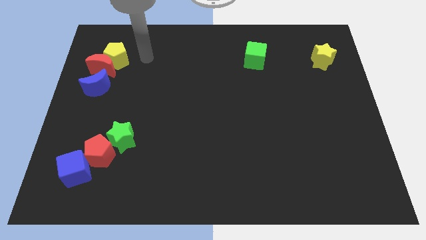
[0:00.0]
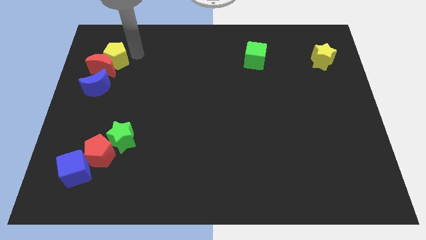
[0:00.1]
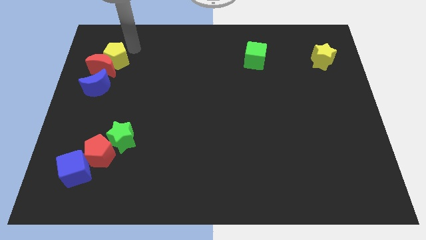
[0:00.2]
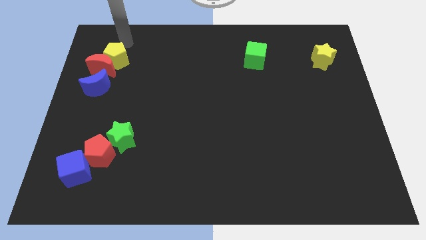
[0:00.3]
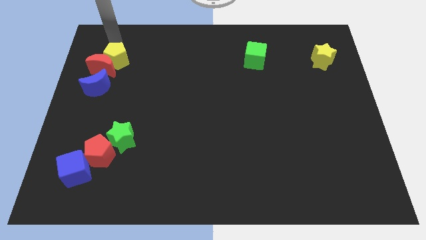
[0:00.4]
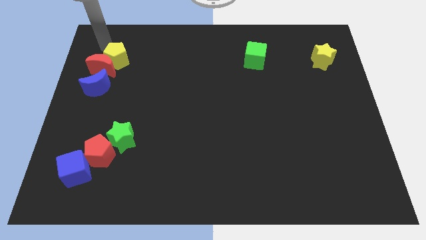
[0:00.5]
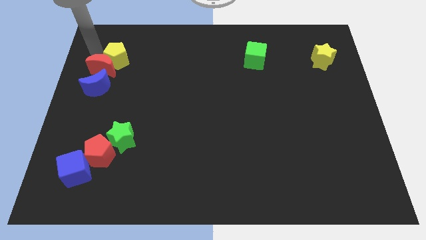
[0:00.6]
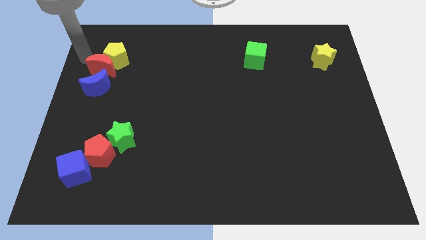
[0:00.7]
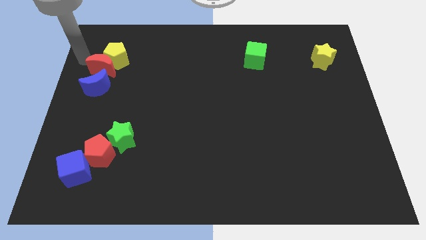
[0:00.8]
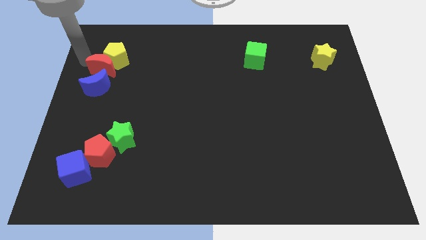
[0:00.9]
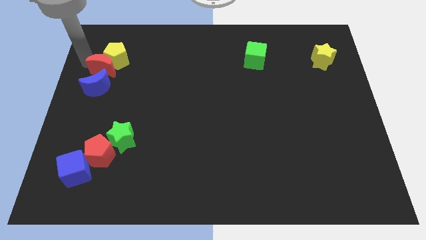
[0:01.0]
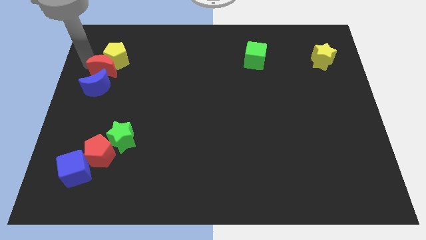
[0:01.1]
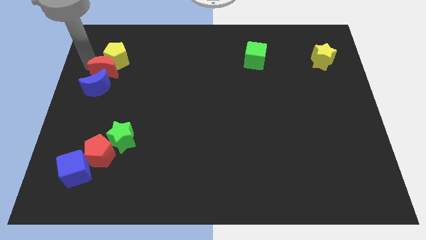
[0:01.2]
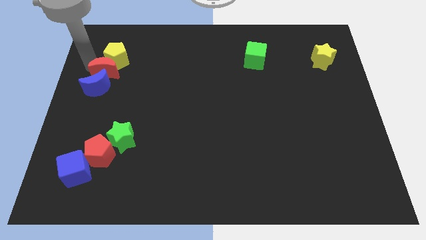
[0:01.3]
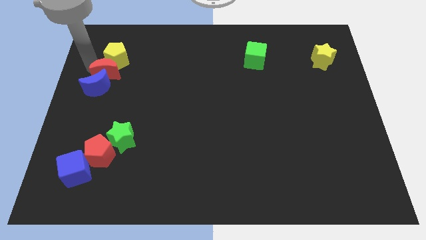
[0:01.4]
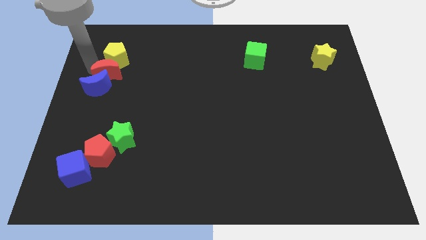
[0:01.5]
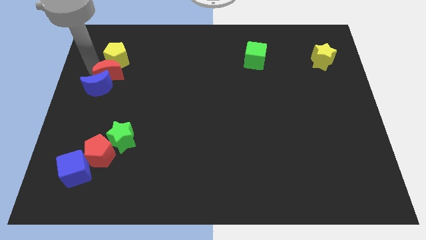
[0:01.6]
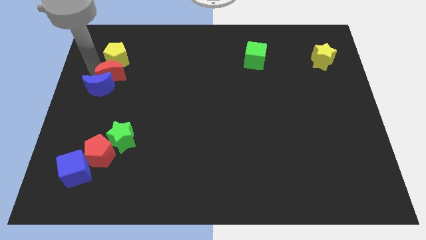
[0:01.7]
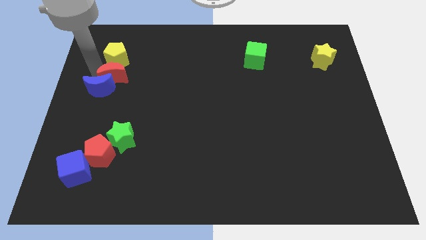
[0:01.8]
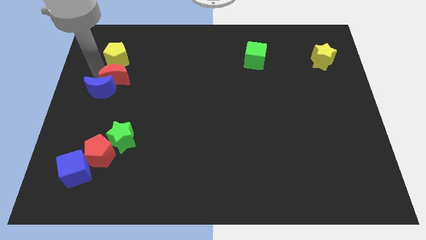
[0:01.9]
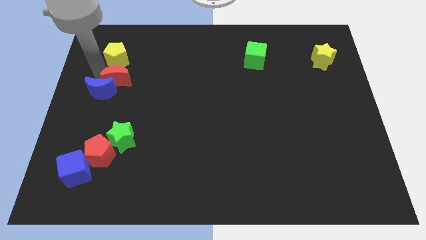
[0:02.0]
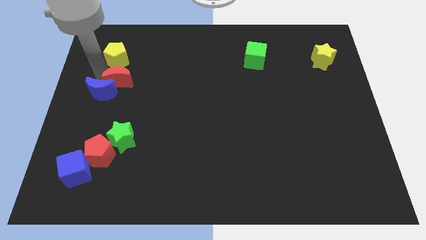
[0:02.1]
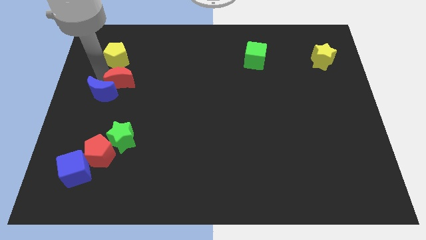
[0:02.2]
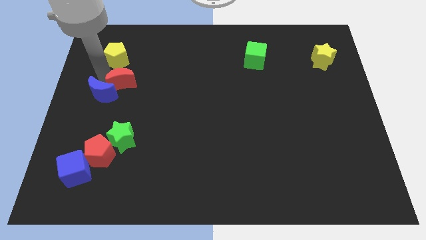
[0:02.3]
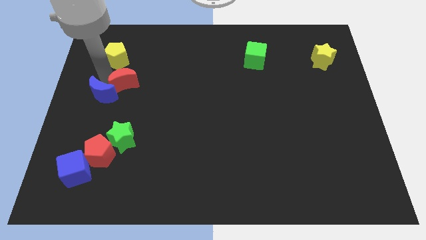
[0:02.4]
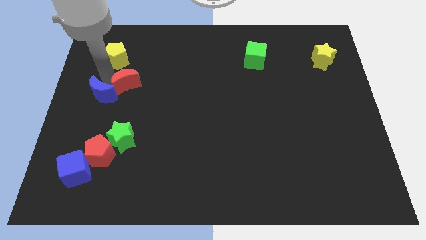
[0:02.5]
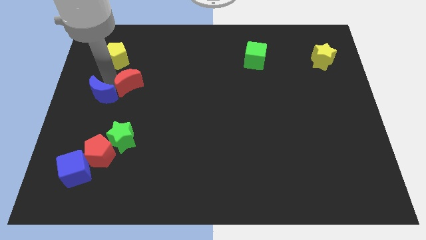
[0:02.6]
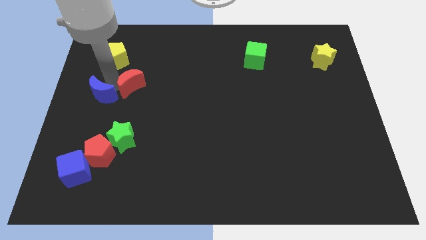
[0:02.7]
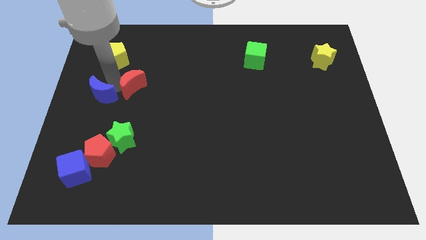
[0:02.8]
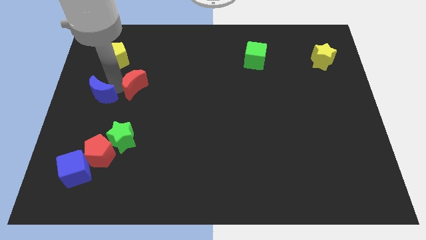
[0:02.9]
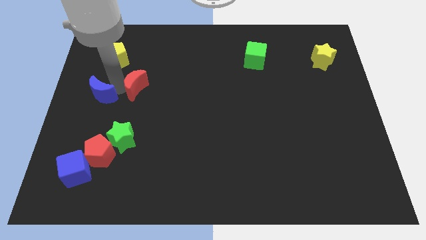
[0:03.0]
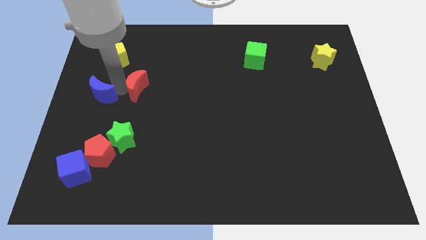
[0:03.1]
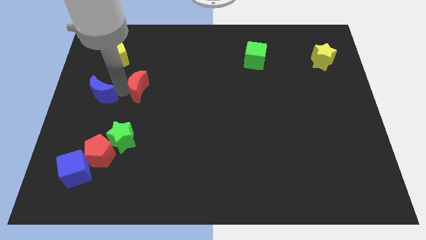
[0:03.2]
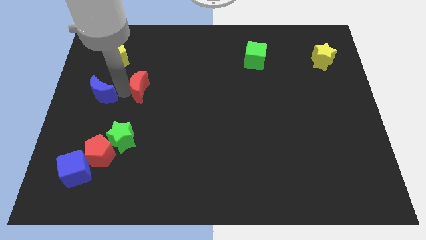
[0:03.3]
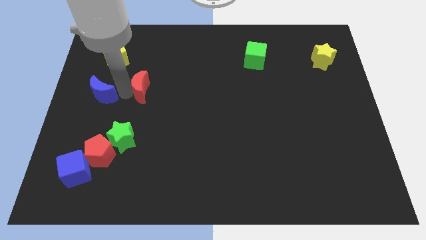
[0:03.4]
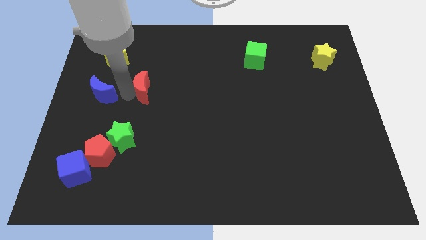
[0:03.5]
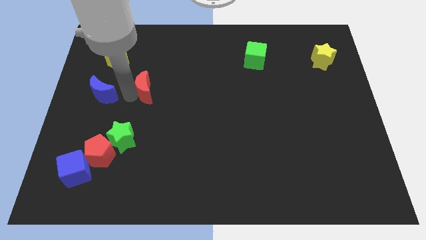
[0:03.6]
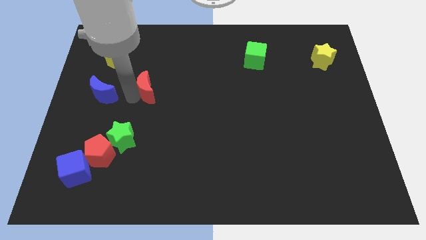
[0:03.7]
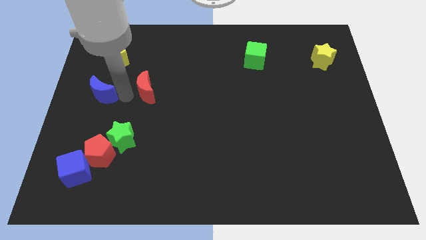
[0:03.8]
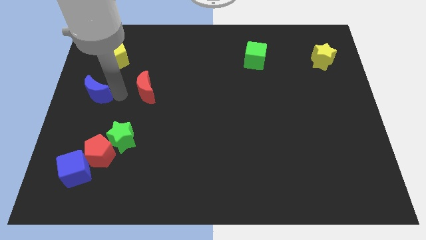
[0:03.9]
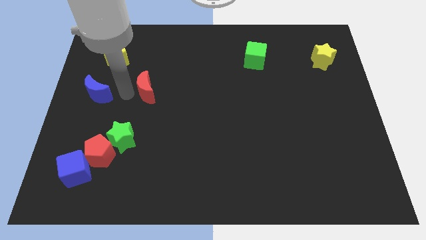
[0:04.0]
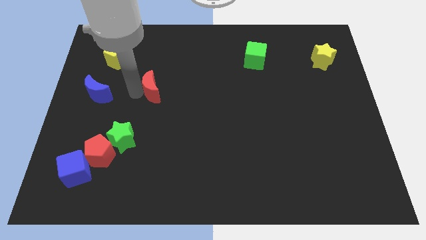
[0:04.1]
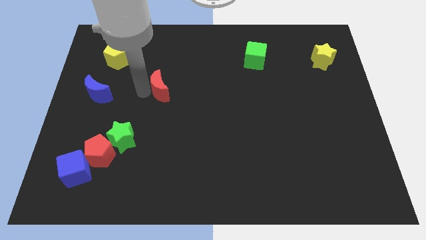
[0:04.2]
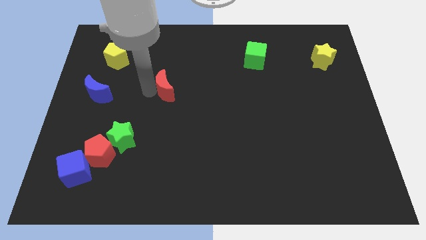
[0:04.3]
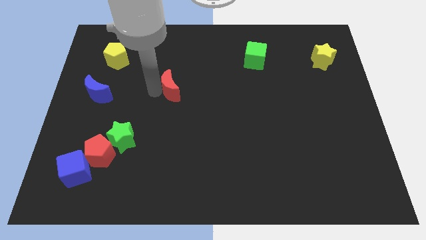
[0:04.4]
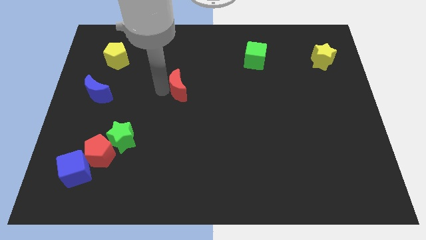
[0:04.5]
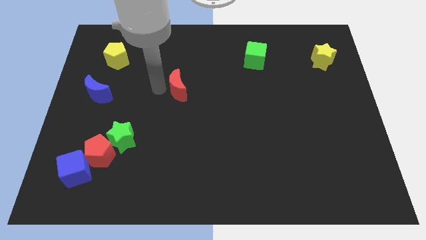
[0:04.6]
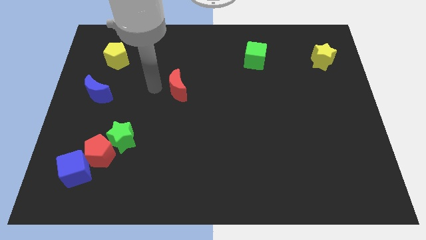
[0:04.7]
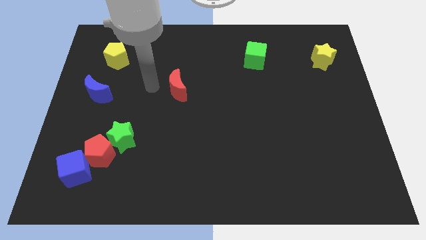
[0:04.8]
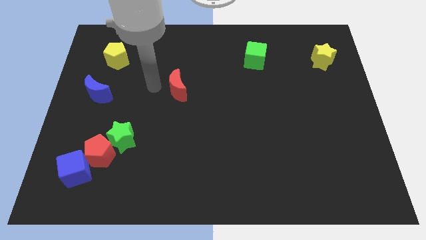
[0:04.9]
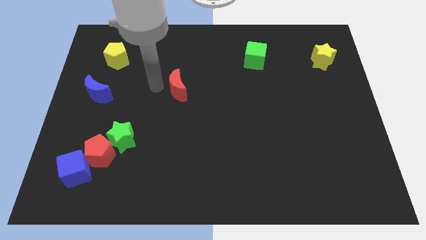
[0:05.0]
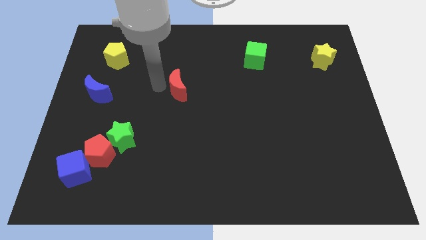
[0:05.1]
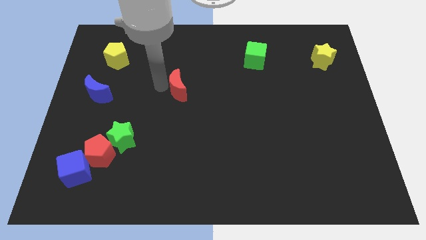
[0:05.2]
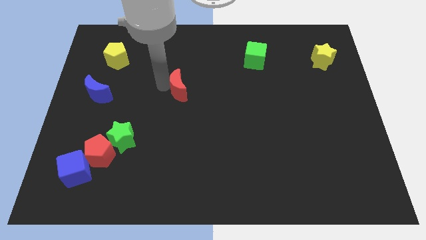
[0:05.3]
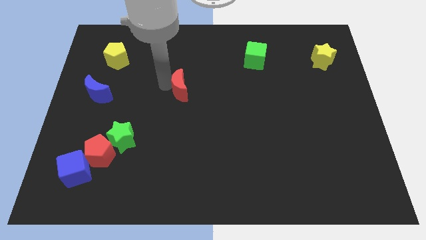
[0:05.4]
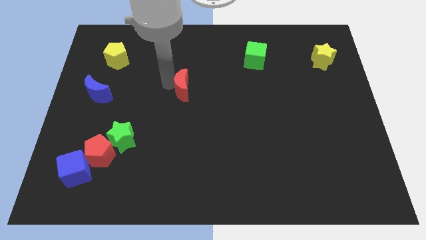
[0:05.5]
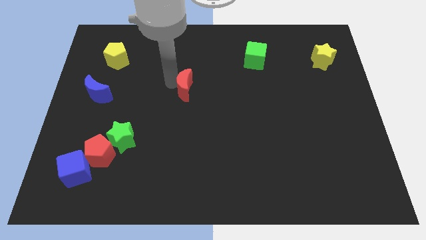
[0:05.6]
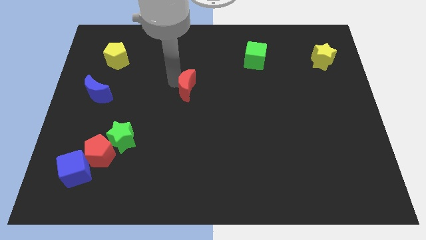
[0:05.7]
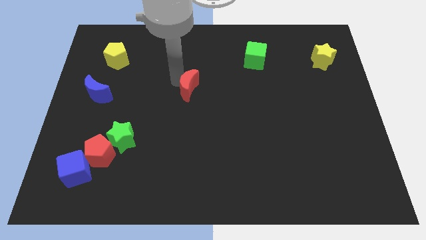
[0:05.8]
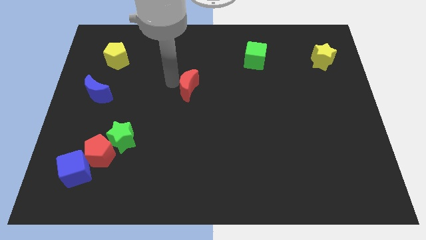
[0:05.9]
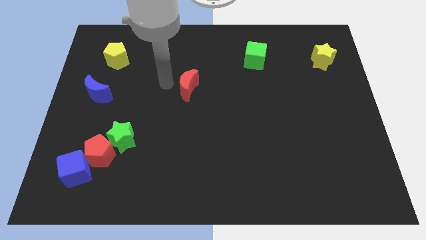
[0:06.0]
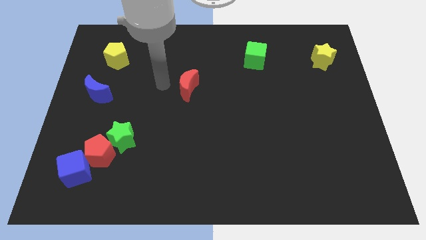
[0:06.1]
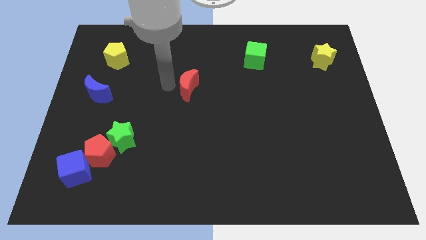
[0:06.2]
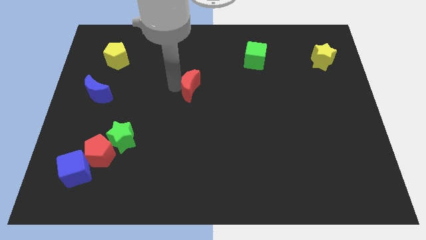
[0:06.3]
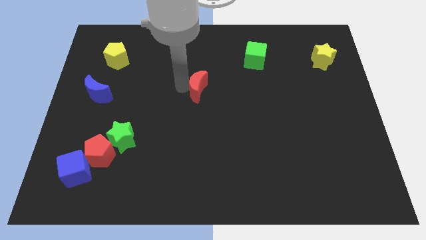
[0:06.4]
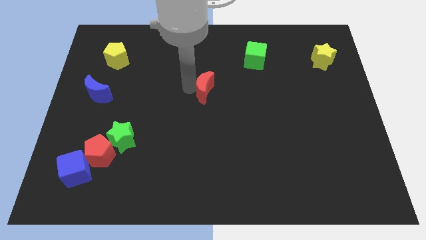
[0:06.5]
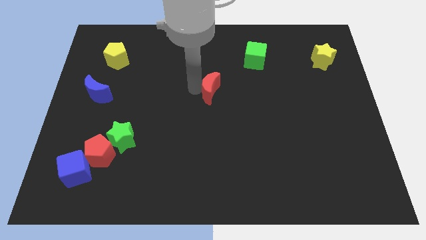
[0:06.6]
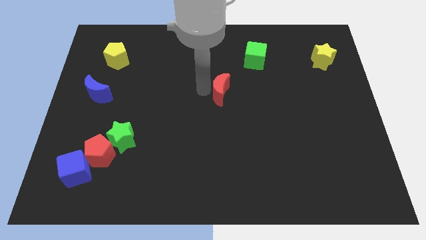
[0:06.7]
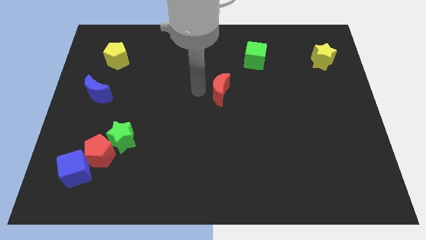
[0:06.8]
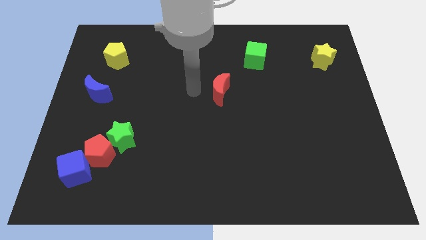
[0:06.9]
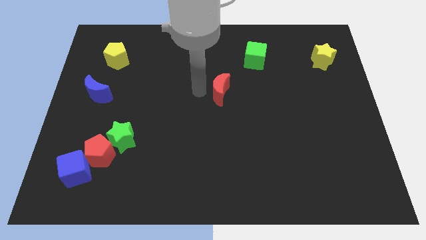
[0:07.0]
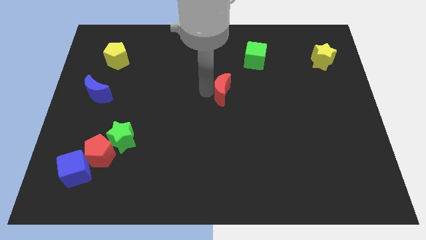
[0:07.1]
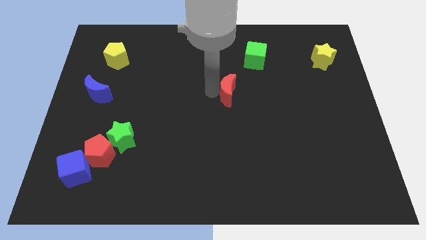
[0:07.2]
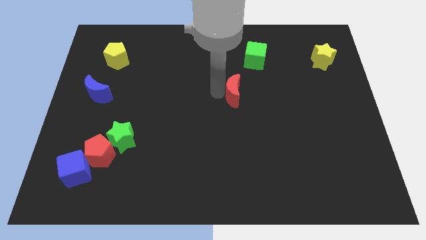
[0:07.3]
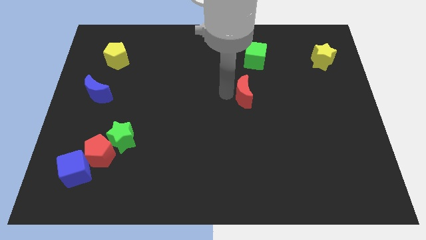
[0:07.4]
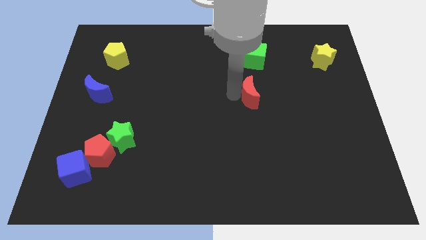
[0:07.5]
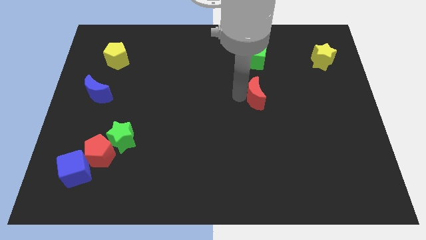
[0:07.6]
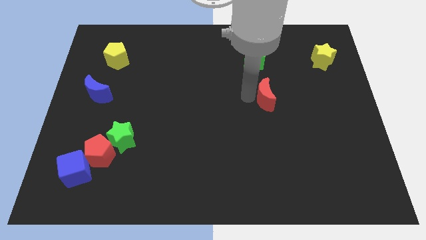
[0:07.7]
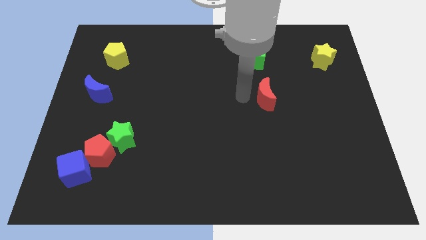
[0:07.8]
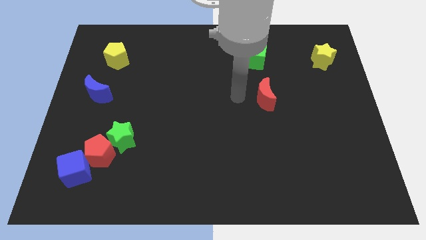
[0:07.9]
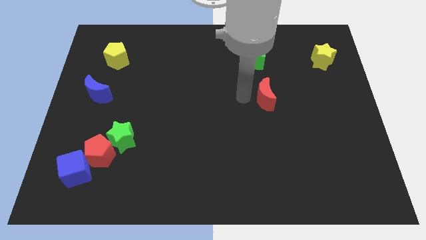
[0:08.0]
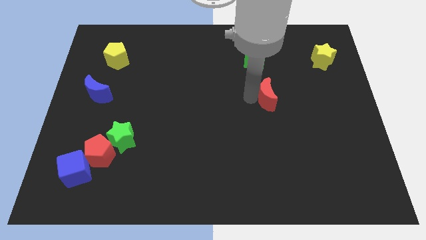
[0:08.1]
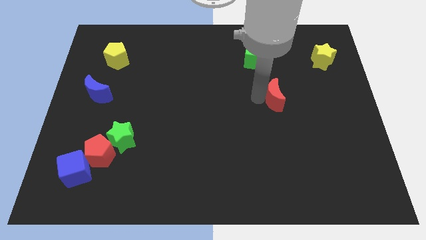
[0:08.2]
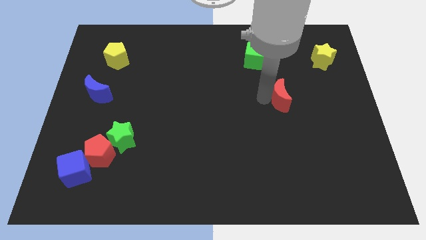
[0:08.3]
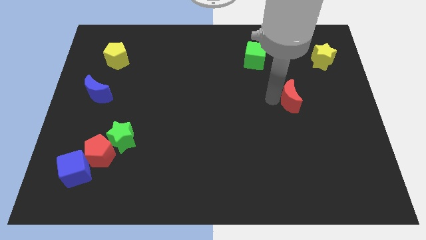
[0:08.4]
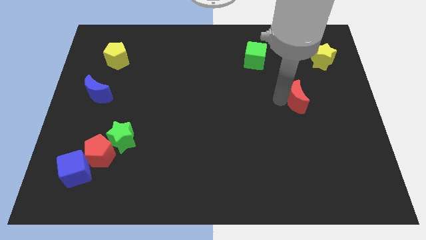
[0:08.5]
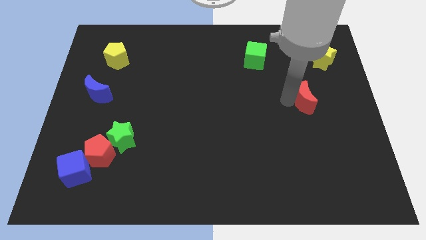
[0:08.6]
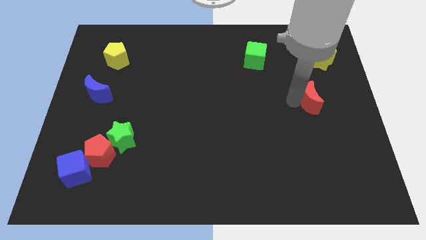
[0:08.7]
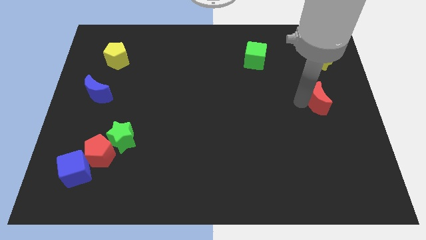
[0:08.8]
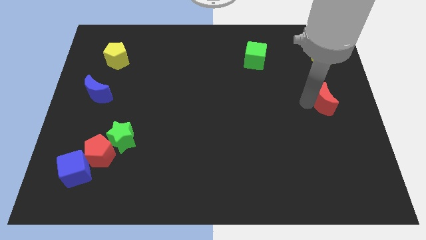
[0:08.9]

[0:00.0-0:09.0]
move the red moon to the right side of the board
